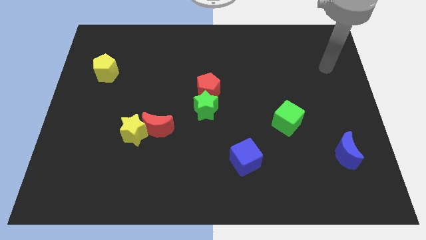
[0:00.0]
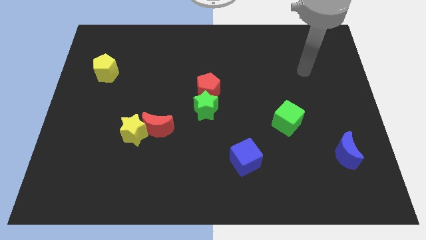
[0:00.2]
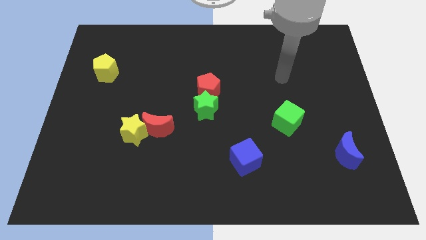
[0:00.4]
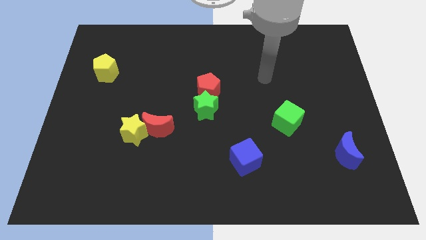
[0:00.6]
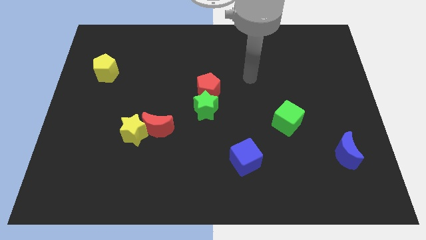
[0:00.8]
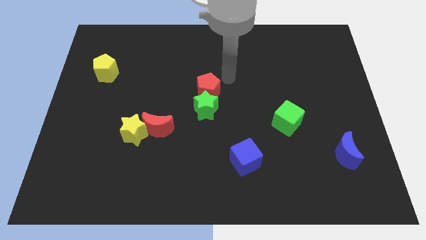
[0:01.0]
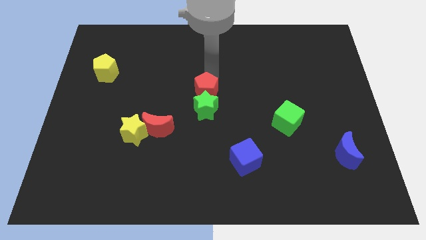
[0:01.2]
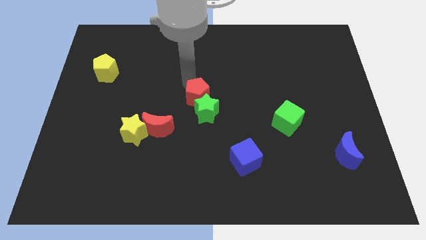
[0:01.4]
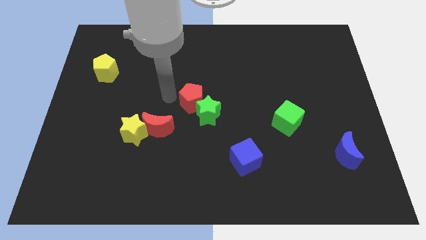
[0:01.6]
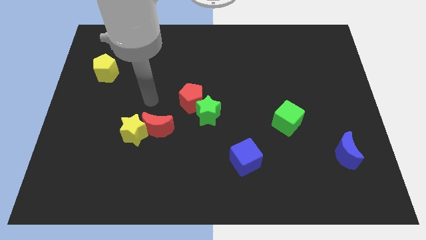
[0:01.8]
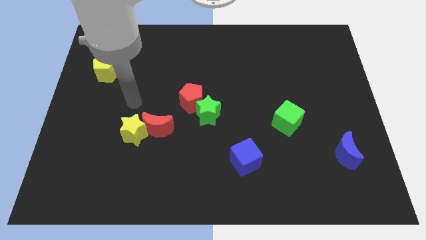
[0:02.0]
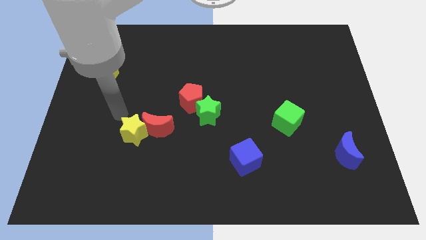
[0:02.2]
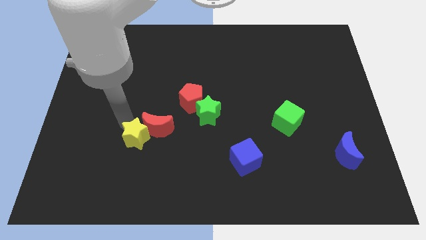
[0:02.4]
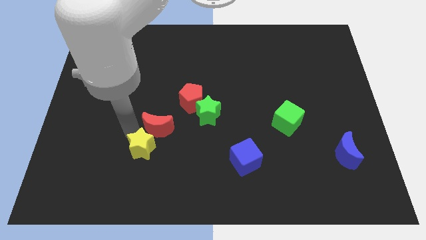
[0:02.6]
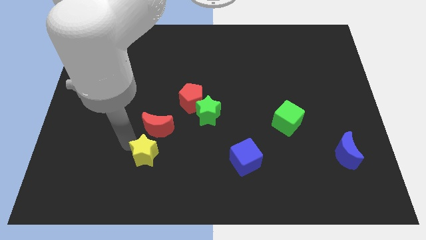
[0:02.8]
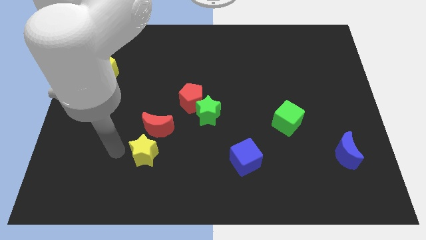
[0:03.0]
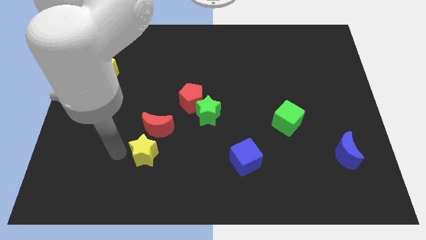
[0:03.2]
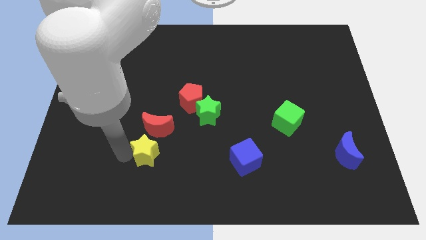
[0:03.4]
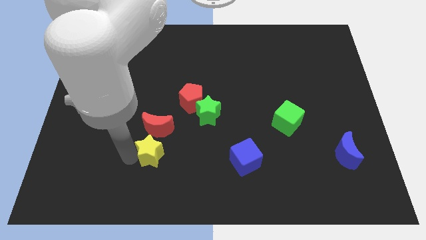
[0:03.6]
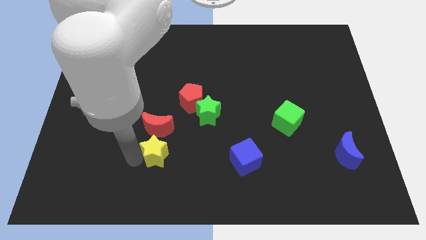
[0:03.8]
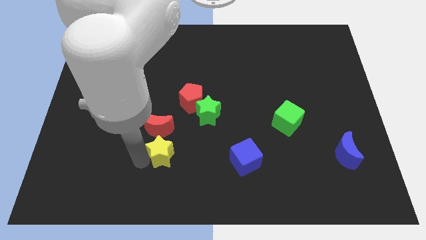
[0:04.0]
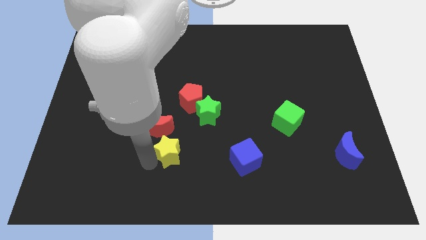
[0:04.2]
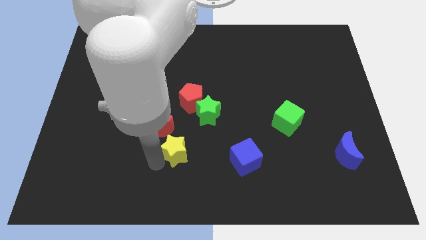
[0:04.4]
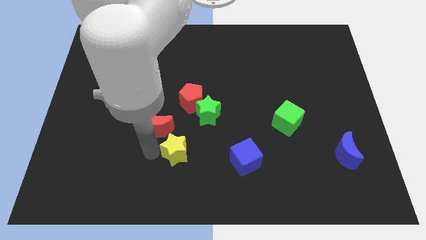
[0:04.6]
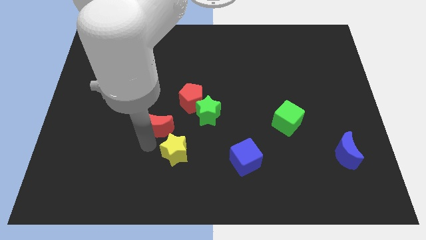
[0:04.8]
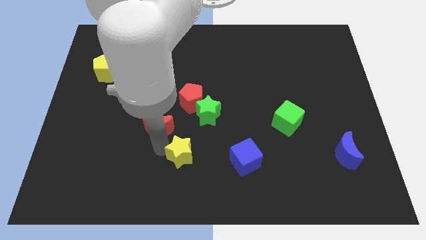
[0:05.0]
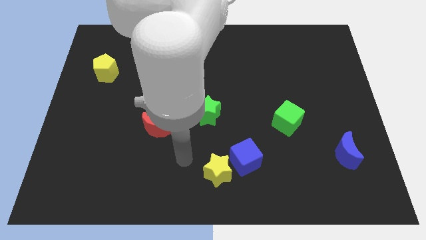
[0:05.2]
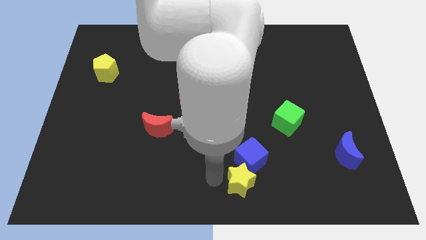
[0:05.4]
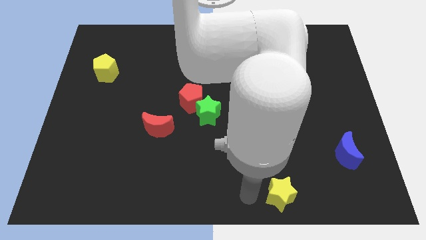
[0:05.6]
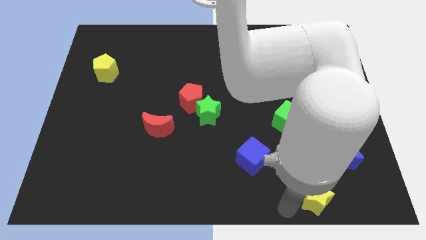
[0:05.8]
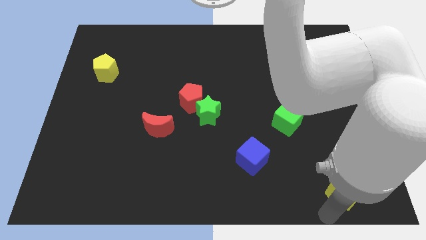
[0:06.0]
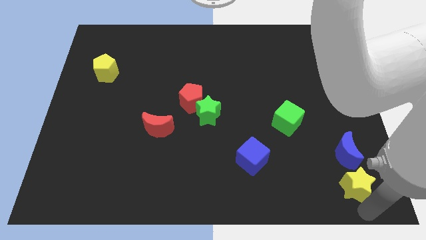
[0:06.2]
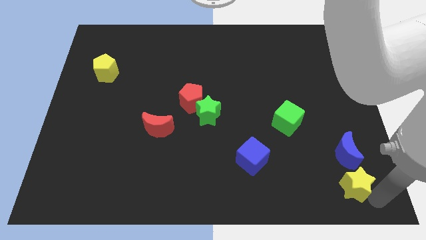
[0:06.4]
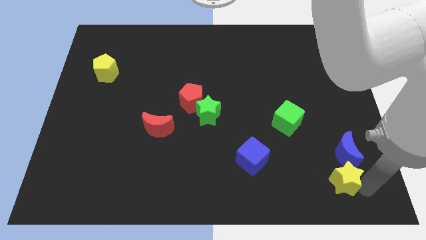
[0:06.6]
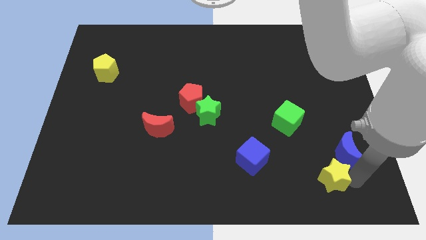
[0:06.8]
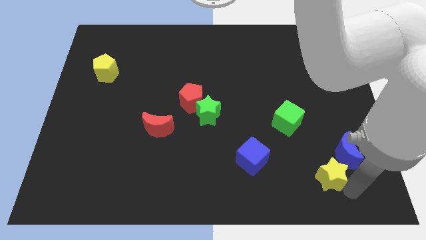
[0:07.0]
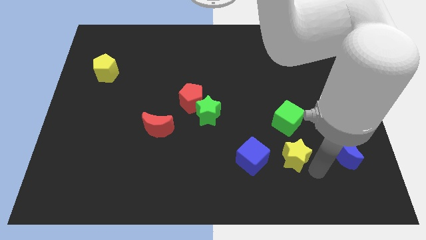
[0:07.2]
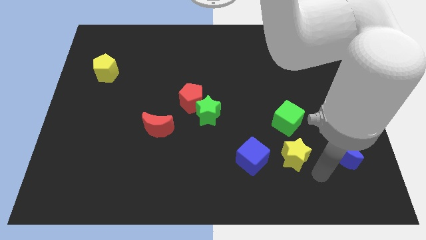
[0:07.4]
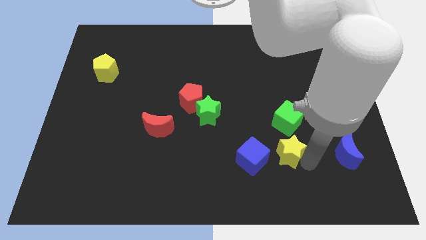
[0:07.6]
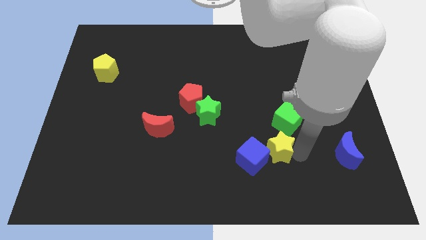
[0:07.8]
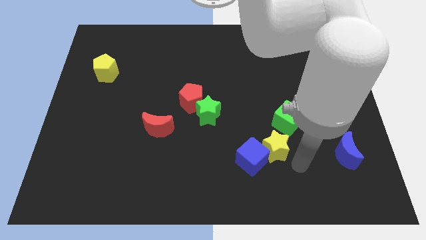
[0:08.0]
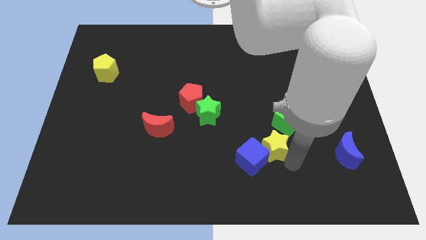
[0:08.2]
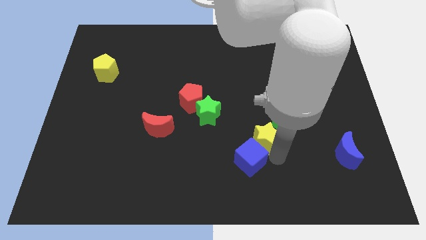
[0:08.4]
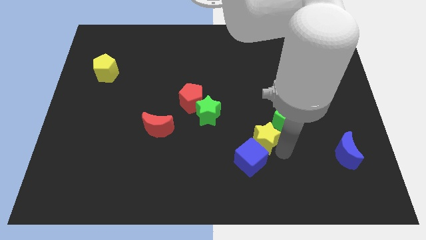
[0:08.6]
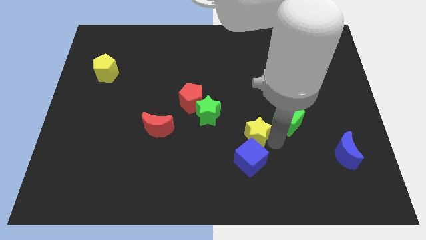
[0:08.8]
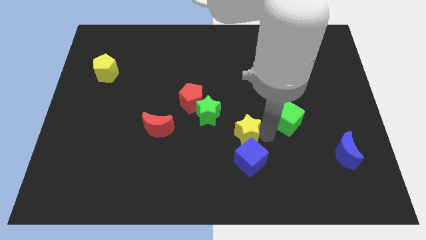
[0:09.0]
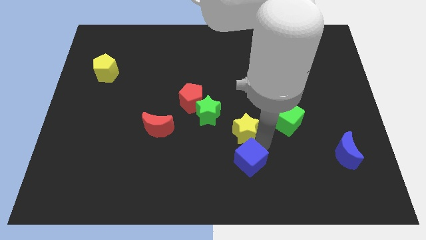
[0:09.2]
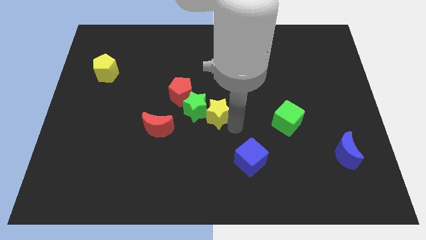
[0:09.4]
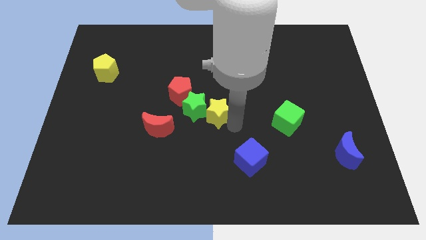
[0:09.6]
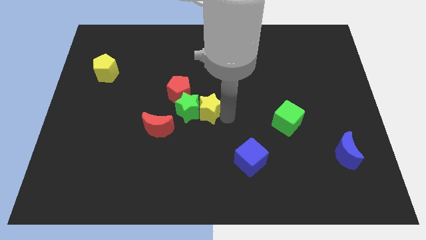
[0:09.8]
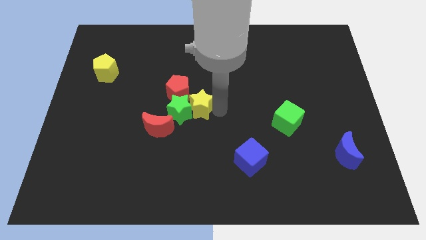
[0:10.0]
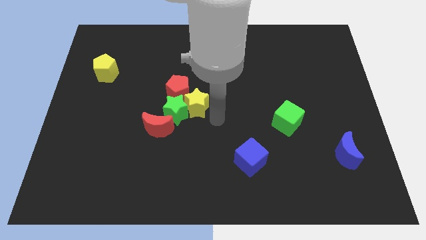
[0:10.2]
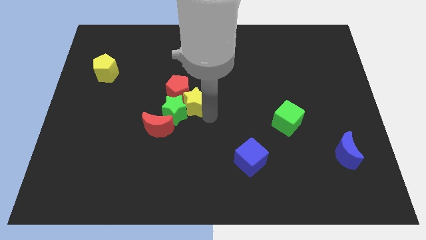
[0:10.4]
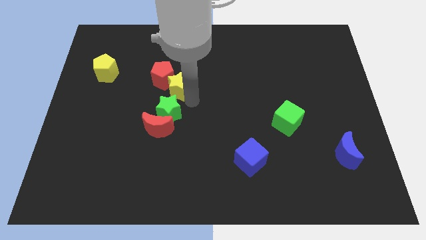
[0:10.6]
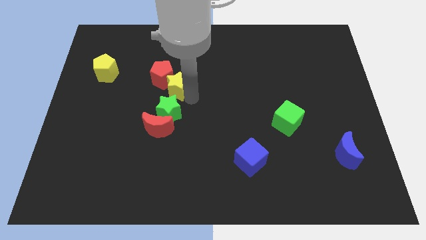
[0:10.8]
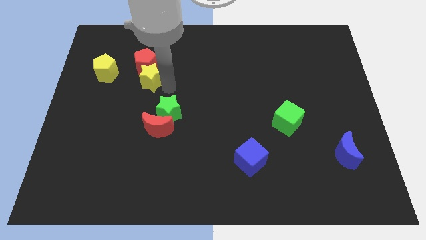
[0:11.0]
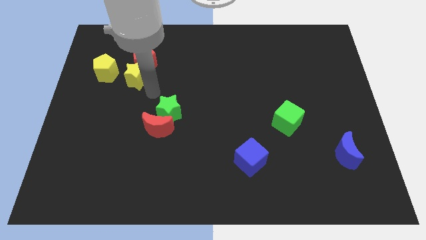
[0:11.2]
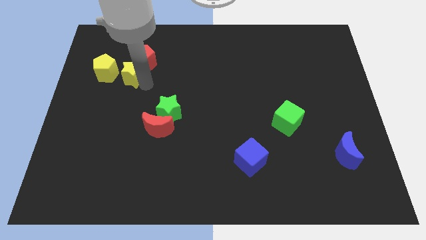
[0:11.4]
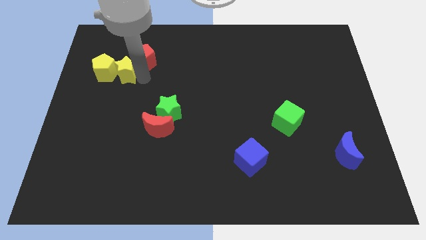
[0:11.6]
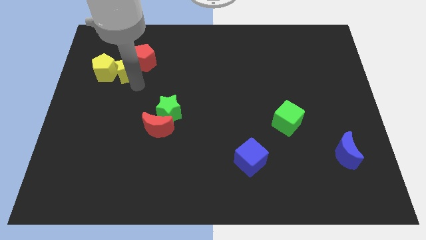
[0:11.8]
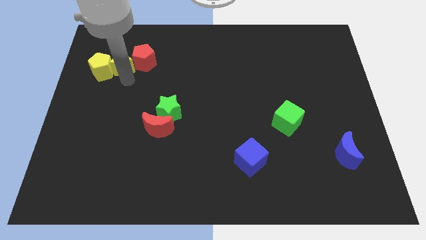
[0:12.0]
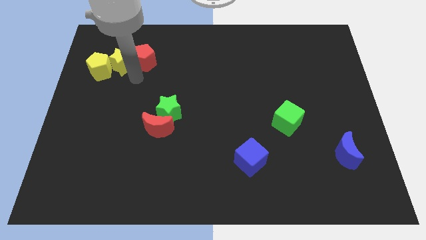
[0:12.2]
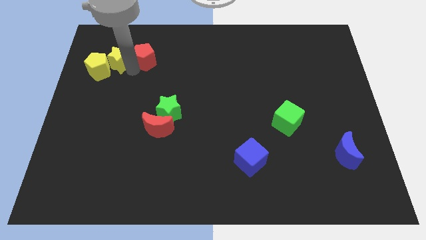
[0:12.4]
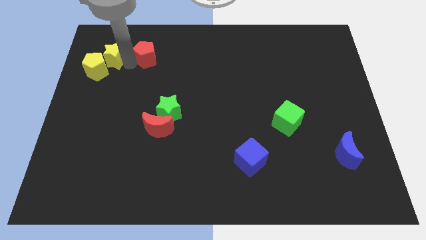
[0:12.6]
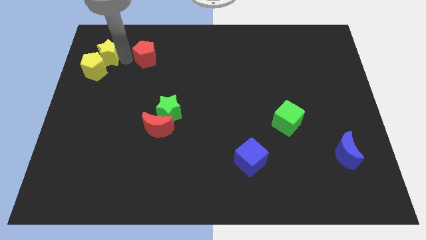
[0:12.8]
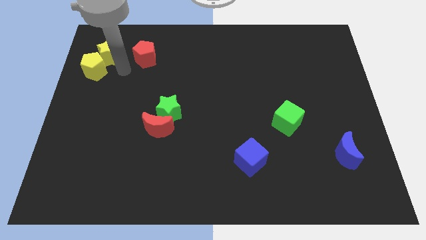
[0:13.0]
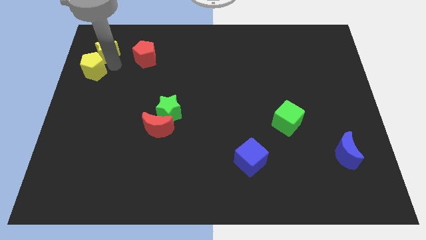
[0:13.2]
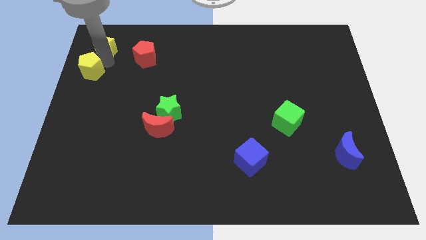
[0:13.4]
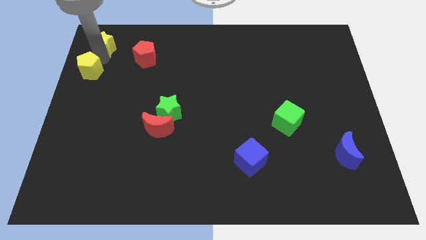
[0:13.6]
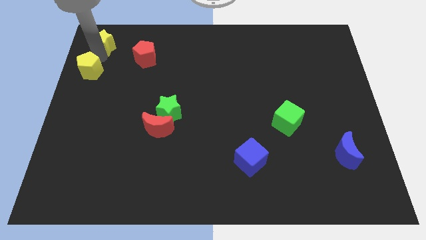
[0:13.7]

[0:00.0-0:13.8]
push the yellow star to the top left

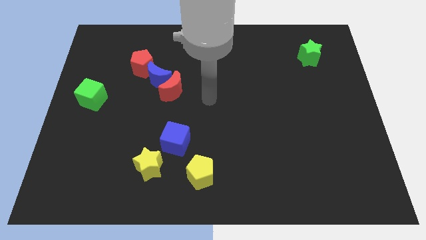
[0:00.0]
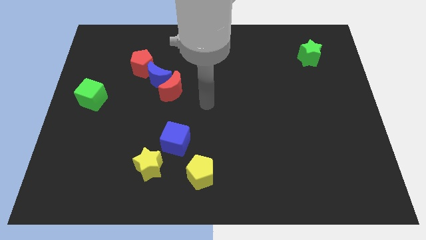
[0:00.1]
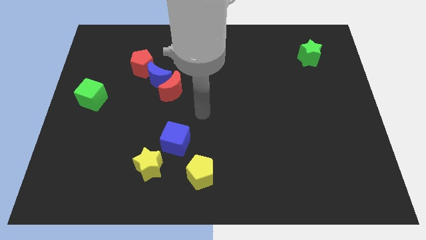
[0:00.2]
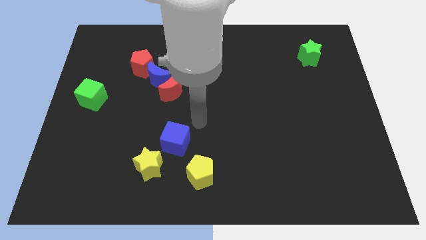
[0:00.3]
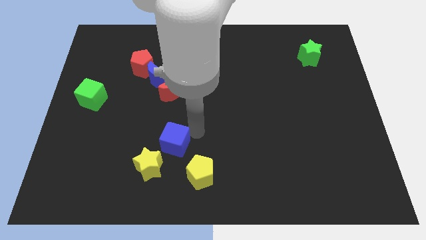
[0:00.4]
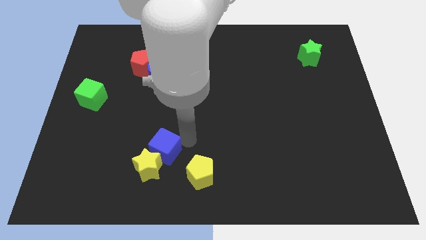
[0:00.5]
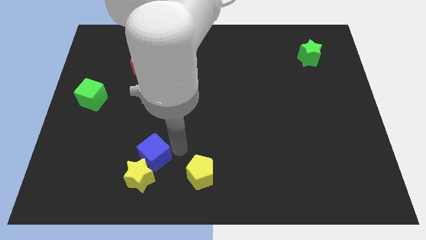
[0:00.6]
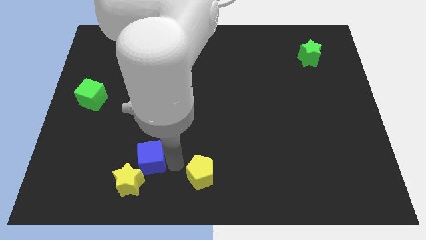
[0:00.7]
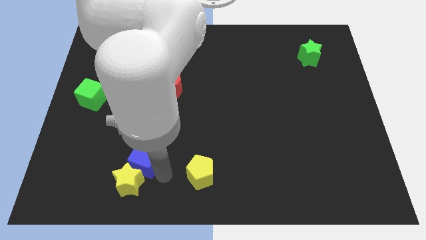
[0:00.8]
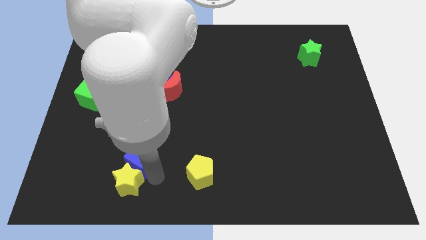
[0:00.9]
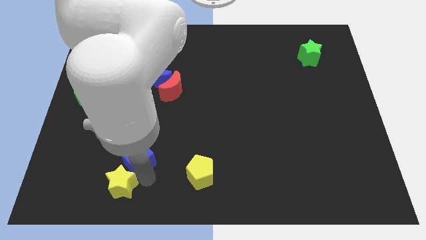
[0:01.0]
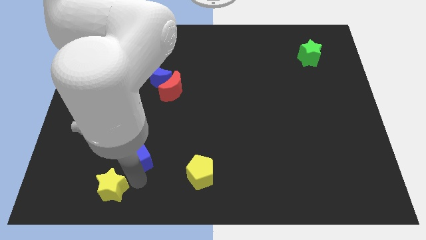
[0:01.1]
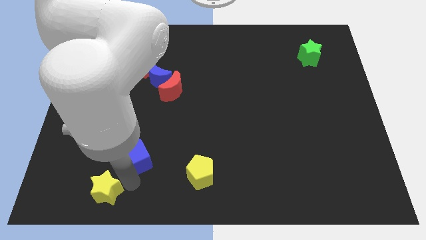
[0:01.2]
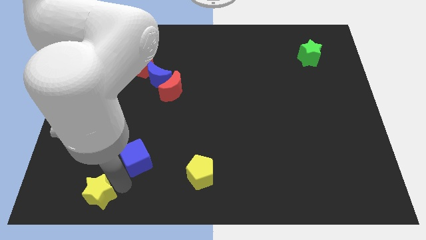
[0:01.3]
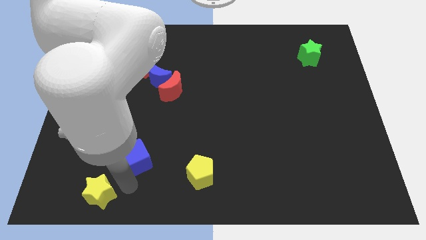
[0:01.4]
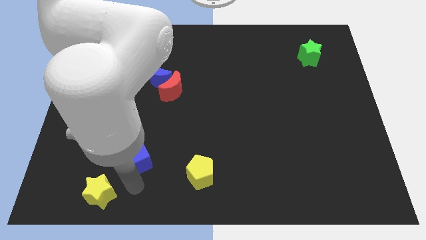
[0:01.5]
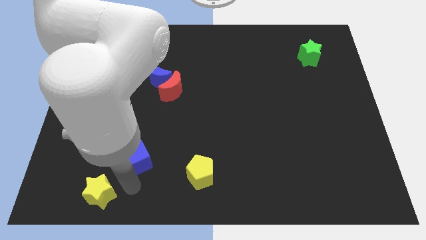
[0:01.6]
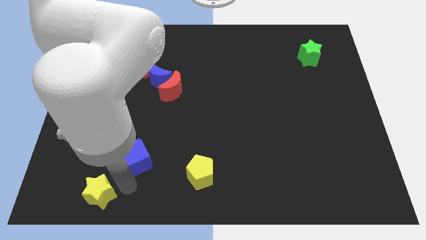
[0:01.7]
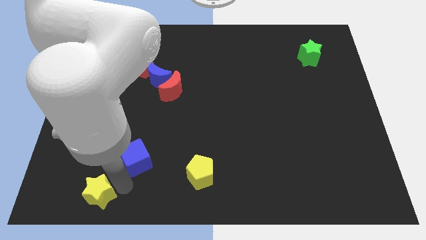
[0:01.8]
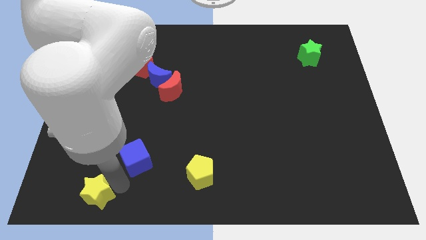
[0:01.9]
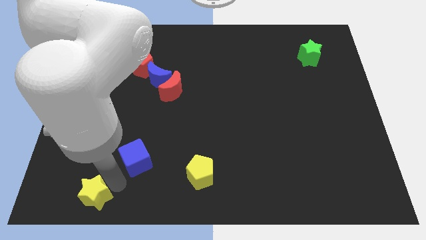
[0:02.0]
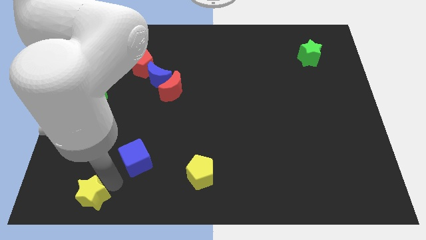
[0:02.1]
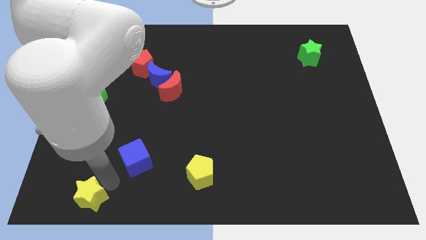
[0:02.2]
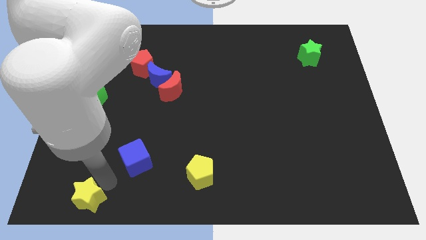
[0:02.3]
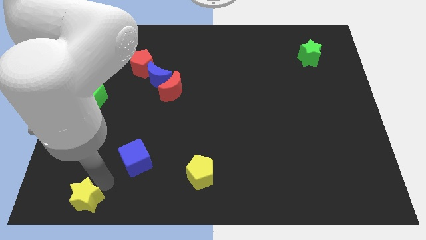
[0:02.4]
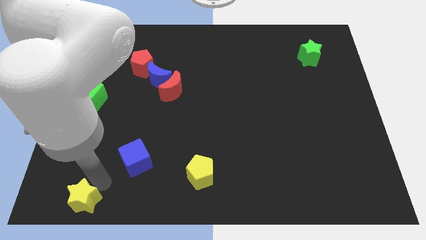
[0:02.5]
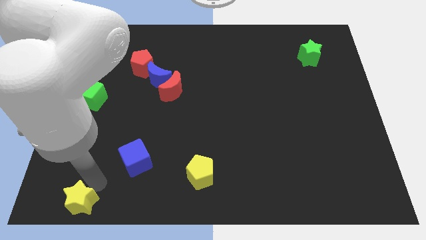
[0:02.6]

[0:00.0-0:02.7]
put the yellow star to the bottom left corner
